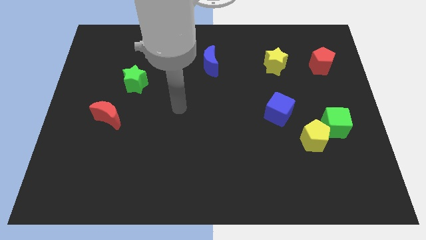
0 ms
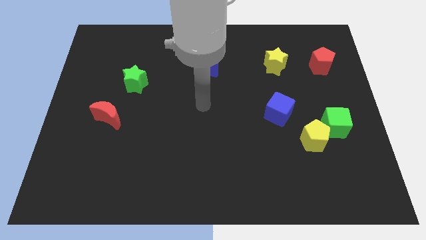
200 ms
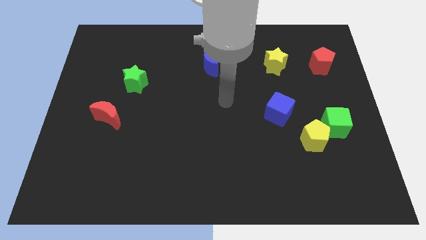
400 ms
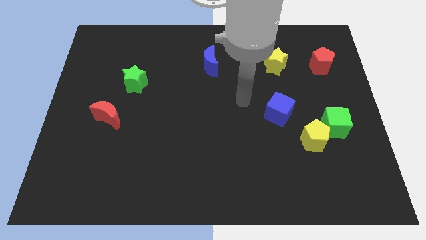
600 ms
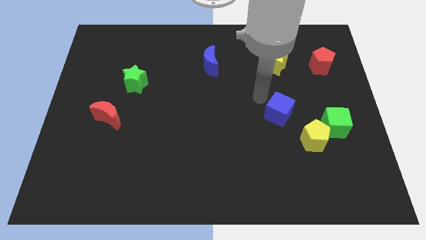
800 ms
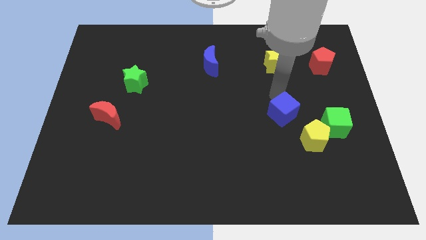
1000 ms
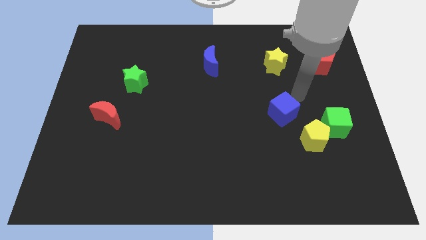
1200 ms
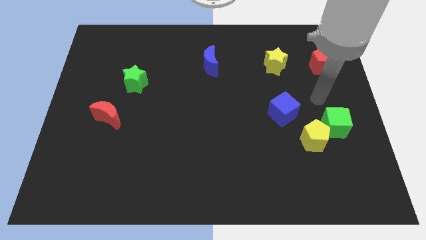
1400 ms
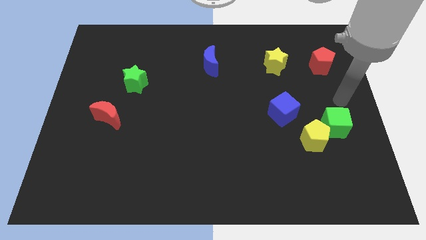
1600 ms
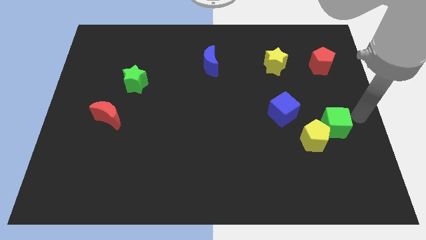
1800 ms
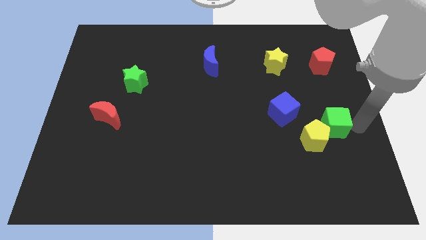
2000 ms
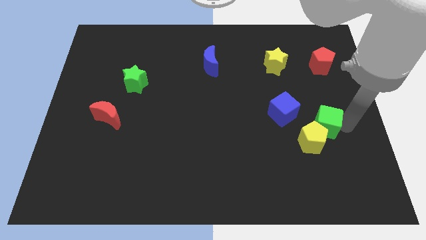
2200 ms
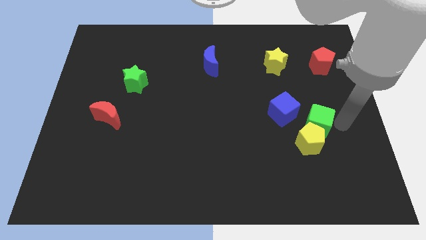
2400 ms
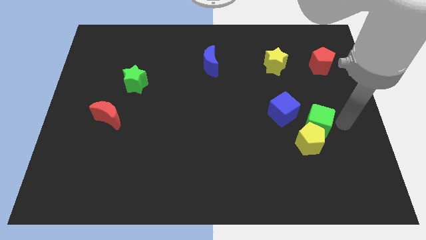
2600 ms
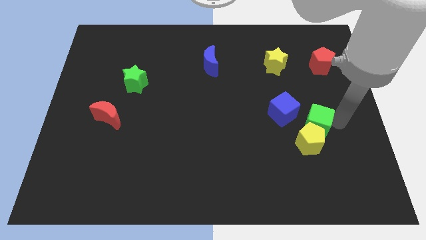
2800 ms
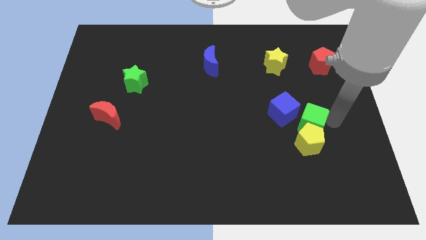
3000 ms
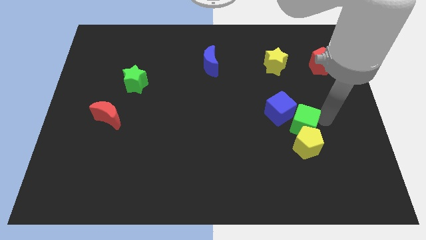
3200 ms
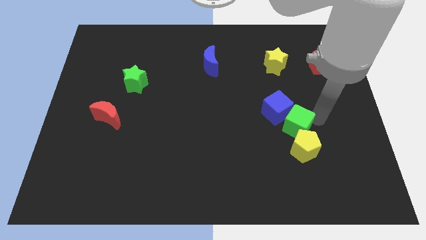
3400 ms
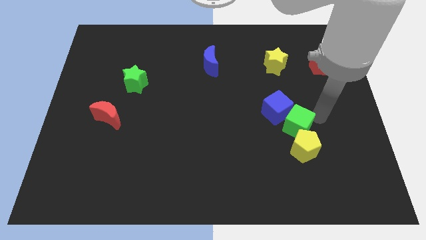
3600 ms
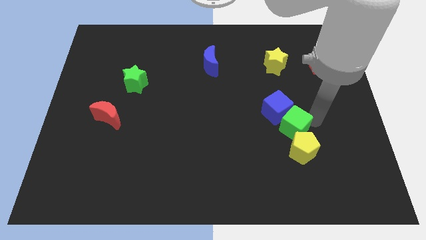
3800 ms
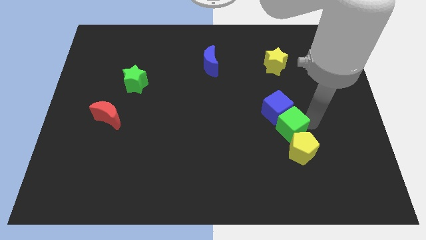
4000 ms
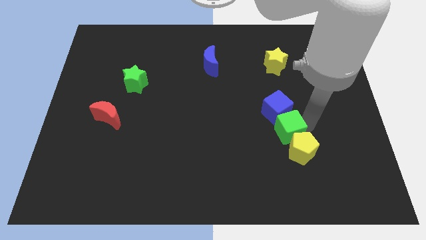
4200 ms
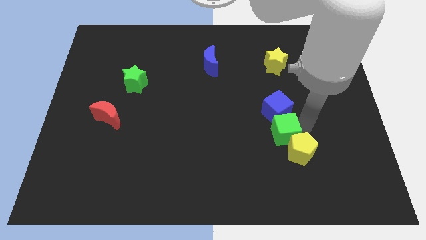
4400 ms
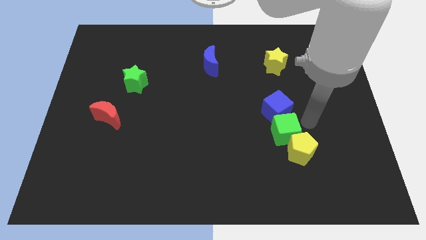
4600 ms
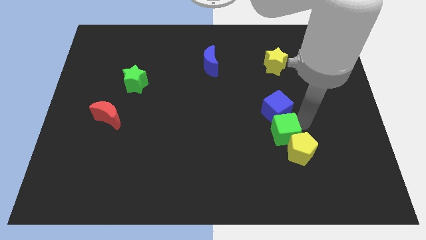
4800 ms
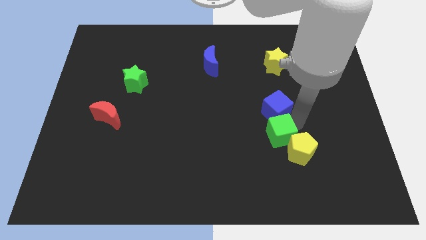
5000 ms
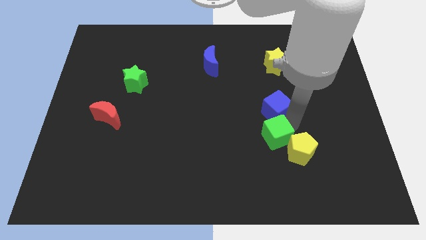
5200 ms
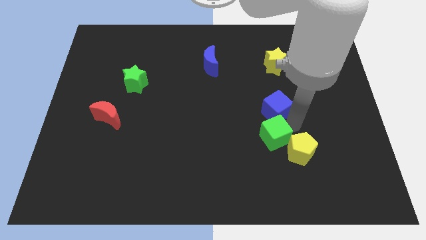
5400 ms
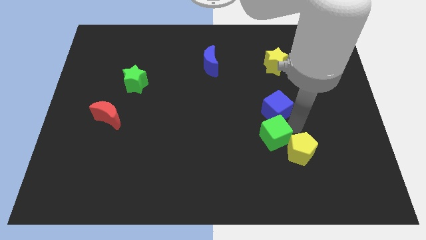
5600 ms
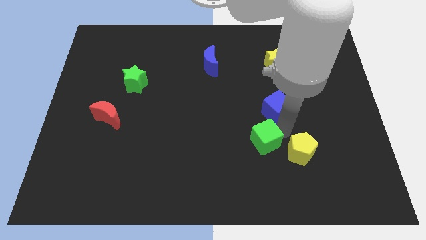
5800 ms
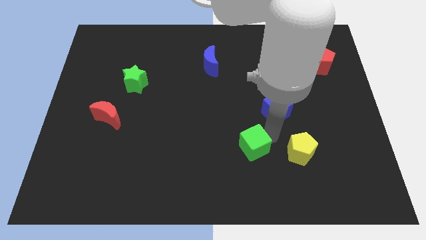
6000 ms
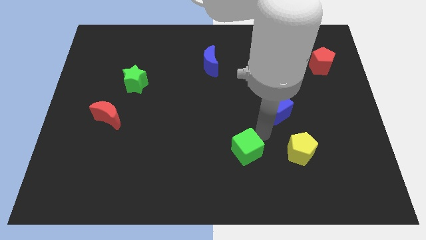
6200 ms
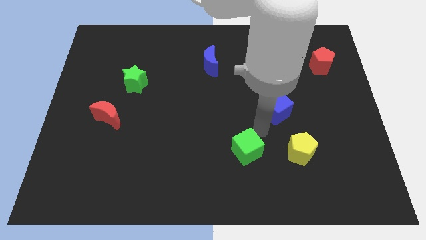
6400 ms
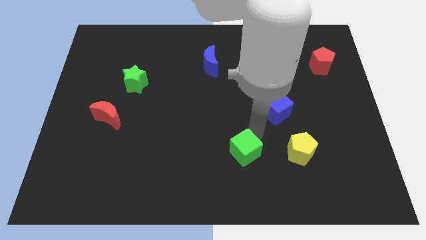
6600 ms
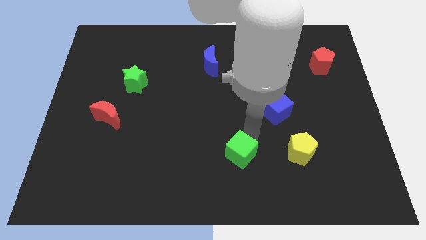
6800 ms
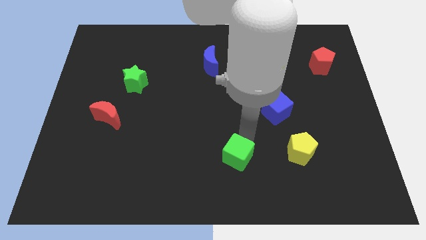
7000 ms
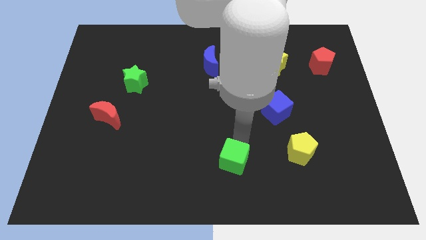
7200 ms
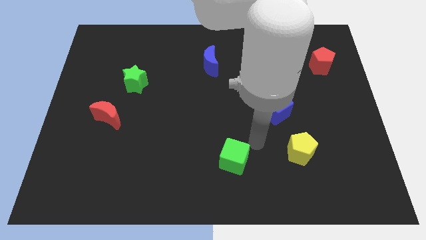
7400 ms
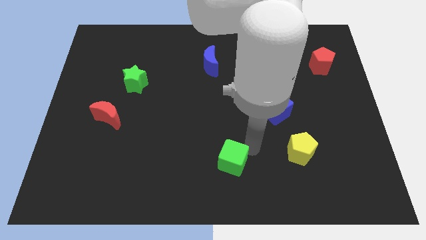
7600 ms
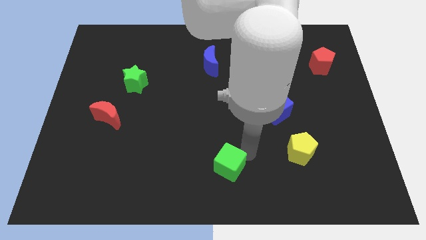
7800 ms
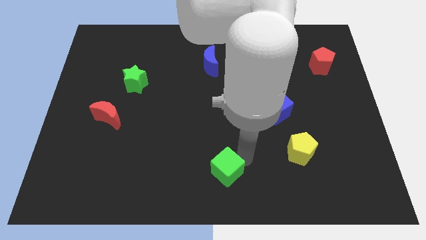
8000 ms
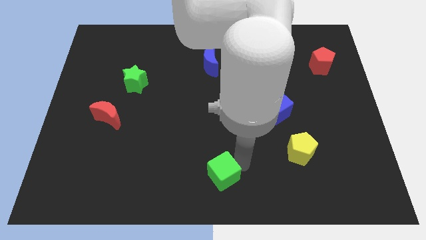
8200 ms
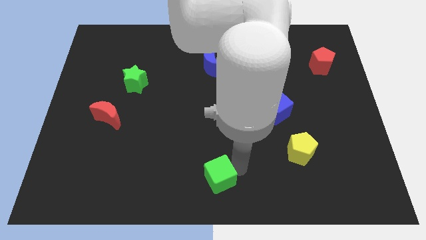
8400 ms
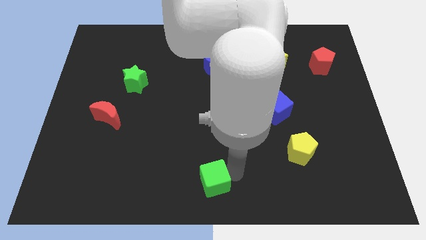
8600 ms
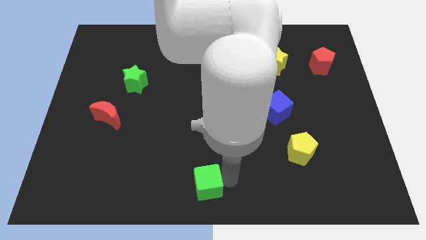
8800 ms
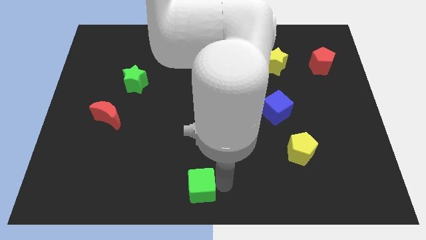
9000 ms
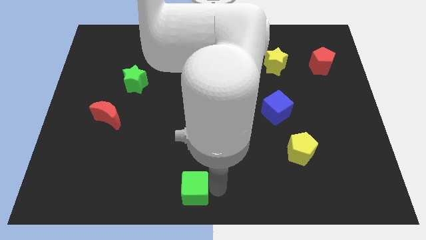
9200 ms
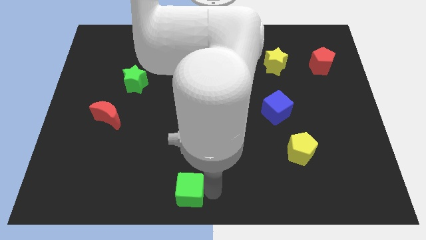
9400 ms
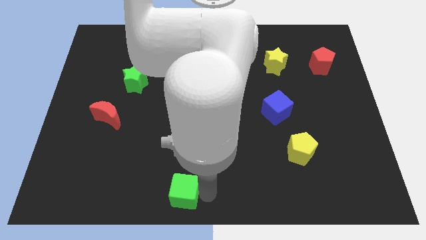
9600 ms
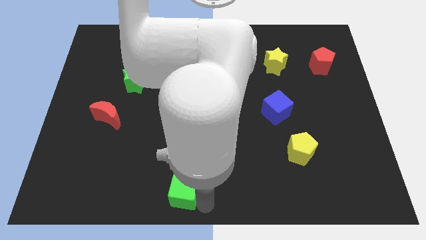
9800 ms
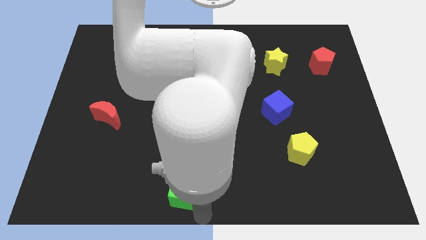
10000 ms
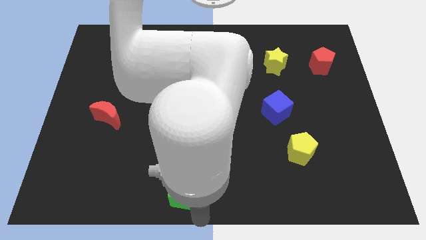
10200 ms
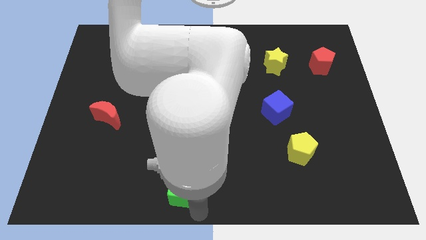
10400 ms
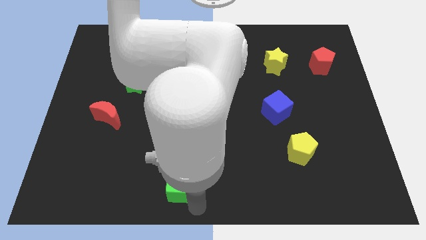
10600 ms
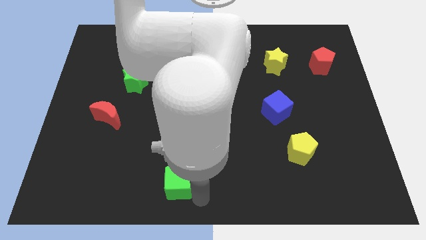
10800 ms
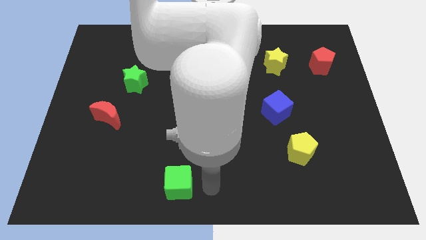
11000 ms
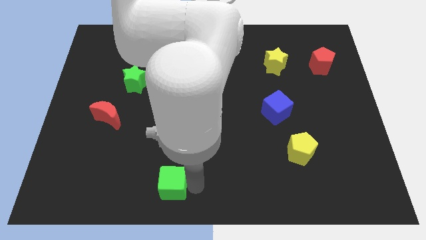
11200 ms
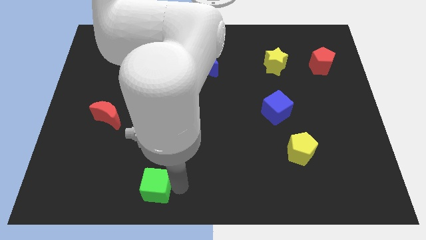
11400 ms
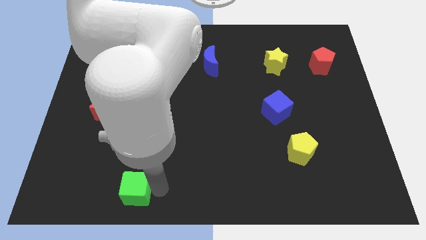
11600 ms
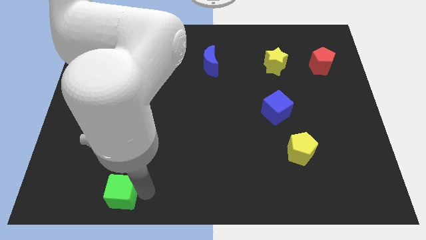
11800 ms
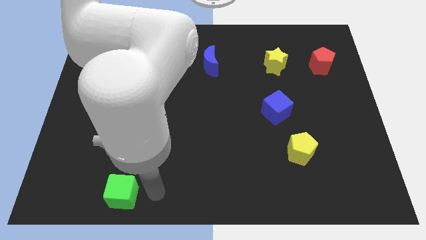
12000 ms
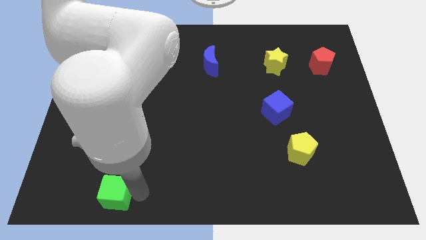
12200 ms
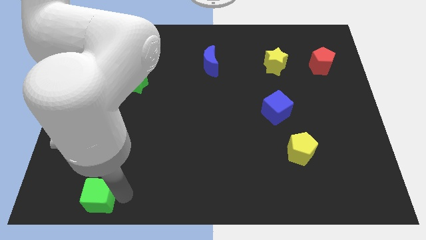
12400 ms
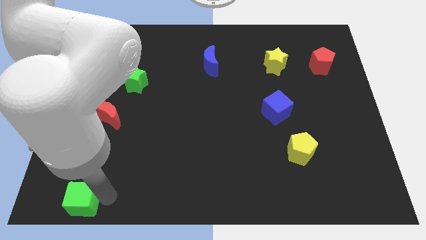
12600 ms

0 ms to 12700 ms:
slide the green cube to the bottom left of the board

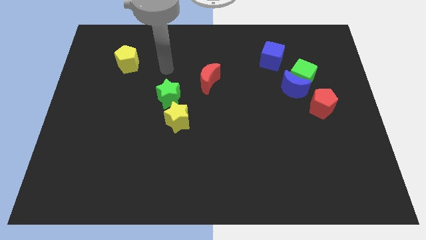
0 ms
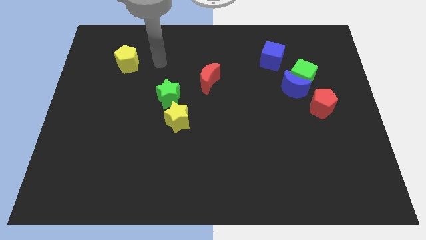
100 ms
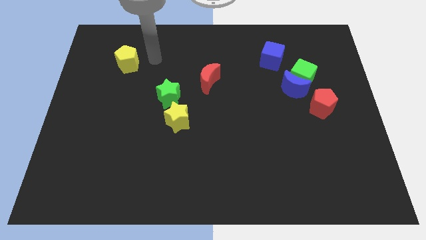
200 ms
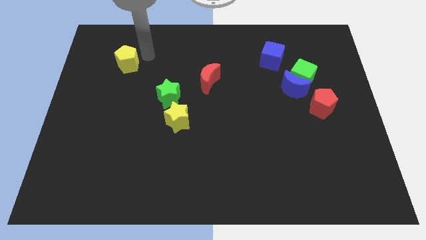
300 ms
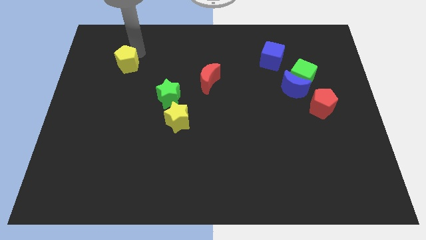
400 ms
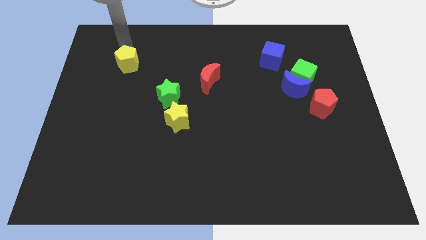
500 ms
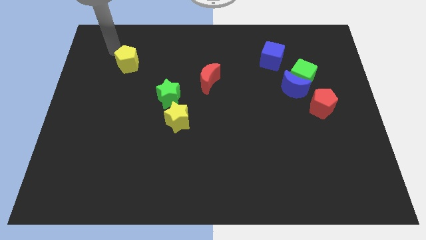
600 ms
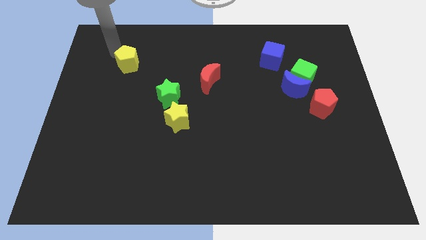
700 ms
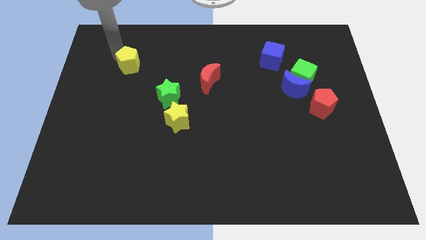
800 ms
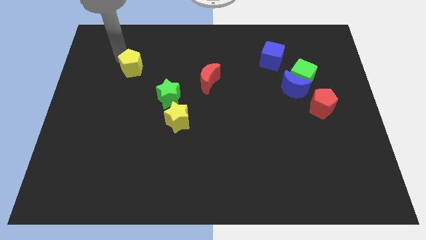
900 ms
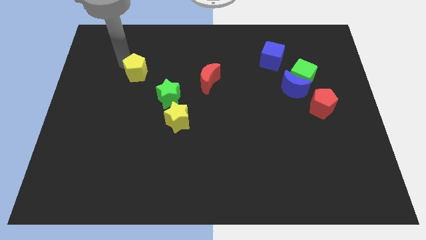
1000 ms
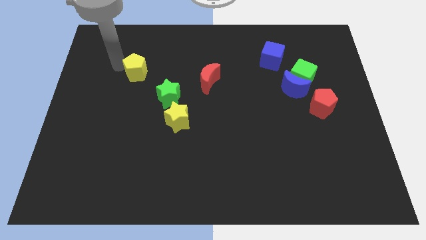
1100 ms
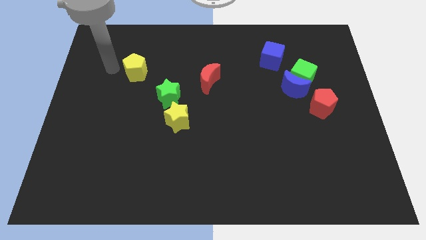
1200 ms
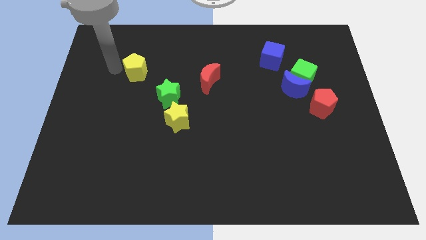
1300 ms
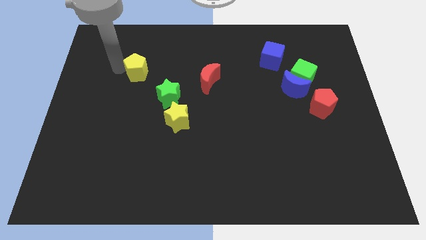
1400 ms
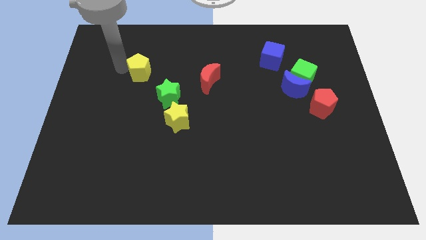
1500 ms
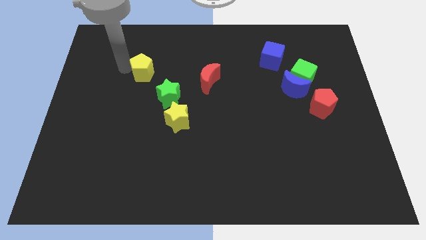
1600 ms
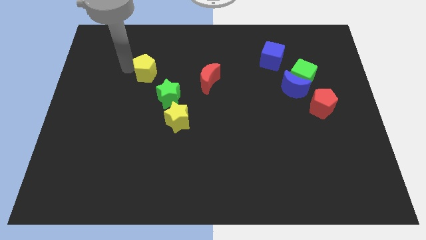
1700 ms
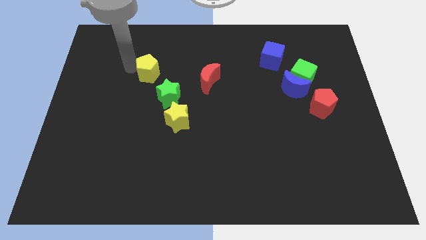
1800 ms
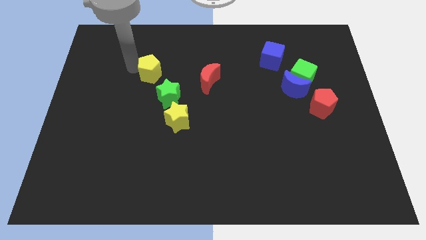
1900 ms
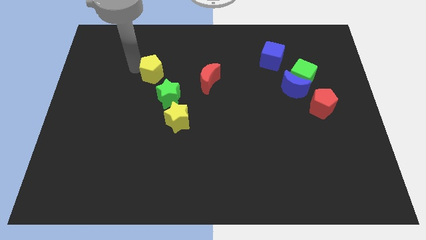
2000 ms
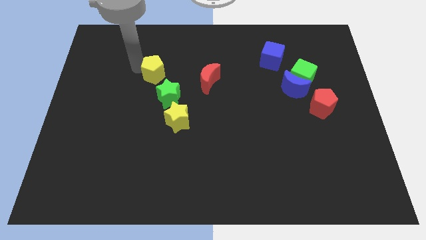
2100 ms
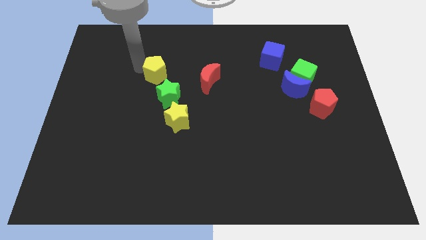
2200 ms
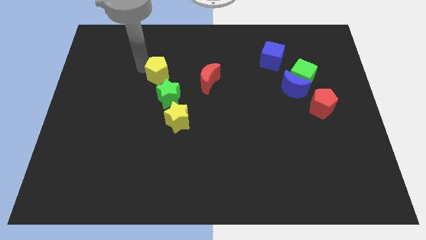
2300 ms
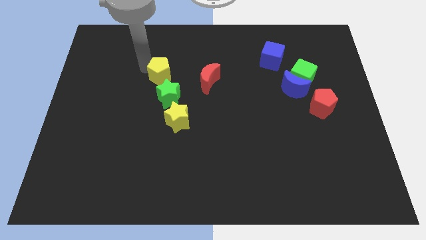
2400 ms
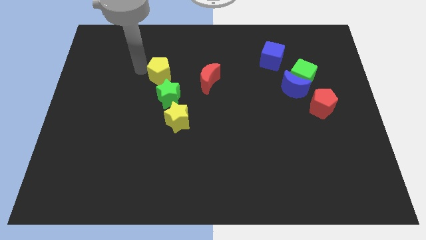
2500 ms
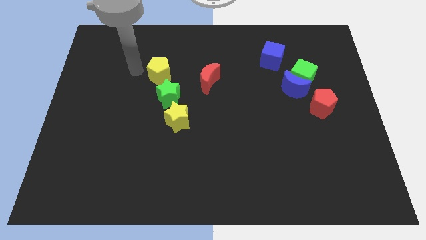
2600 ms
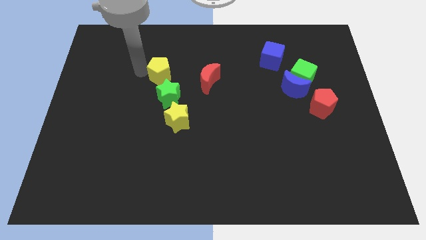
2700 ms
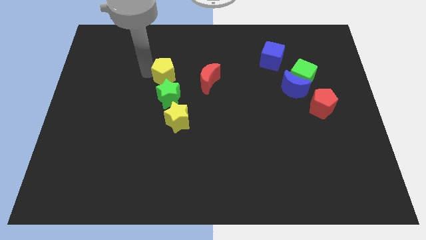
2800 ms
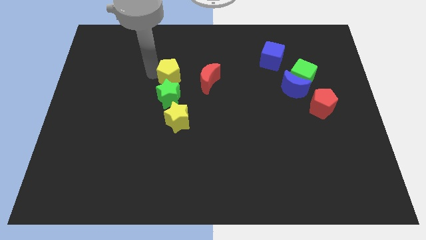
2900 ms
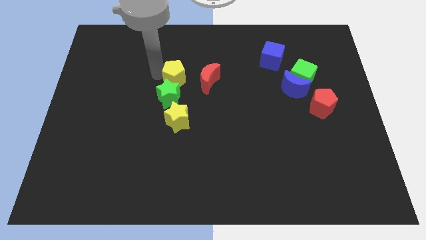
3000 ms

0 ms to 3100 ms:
push the yellow pentagon to the middle
